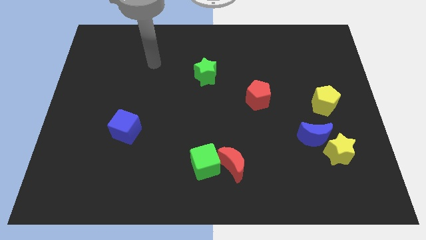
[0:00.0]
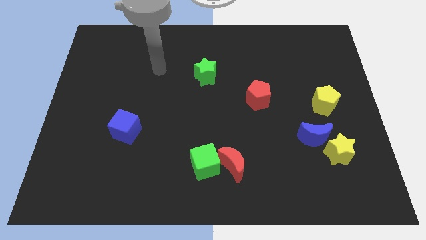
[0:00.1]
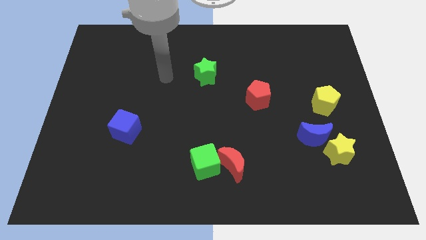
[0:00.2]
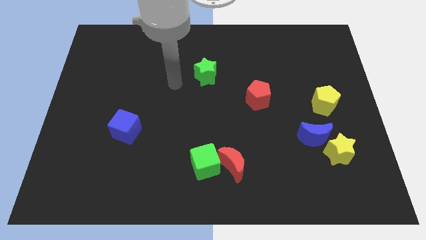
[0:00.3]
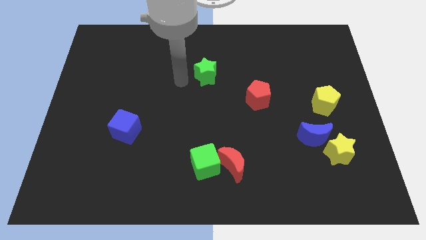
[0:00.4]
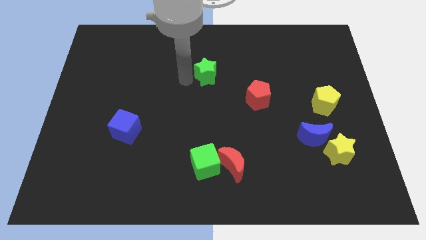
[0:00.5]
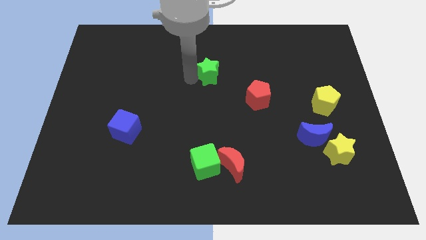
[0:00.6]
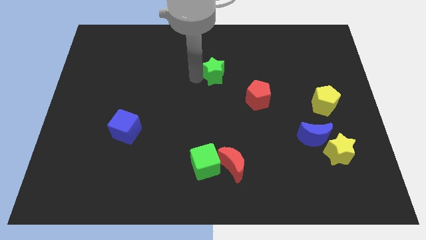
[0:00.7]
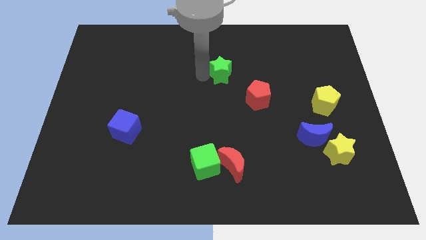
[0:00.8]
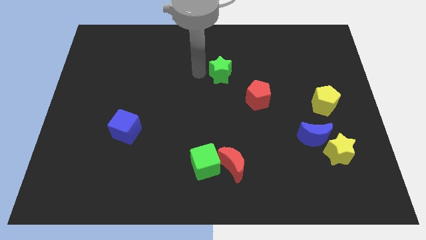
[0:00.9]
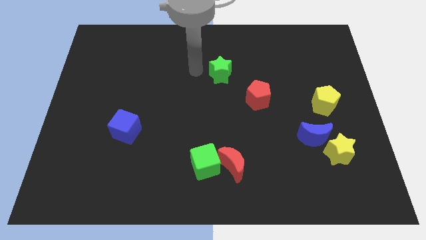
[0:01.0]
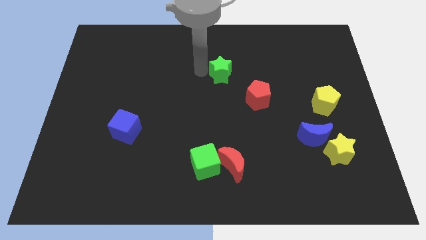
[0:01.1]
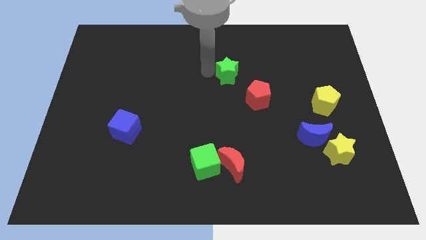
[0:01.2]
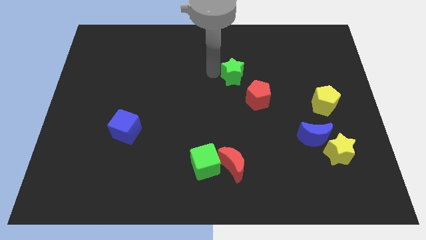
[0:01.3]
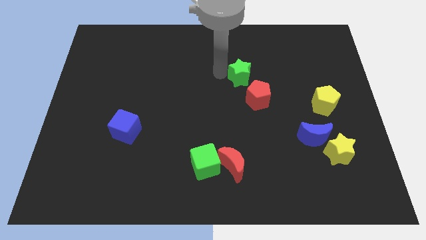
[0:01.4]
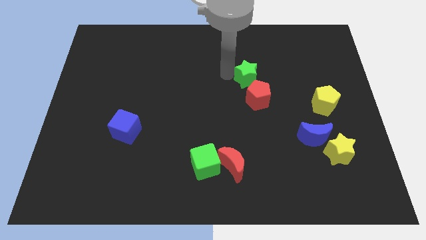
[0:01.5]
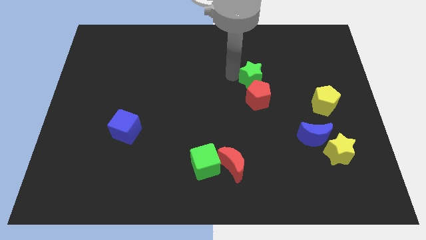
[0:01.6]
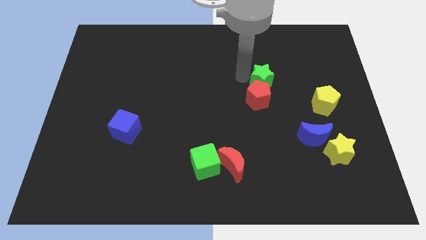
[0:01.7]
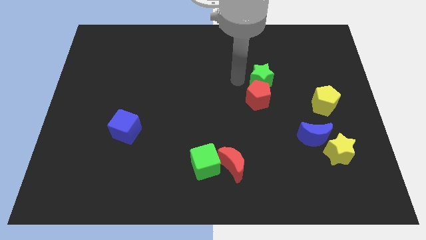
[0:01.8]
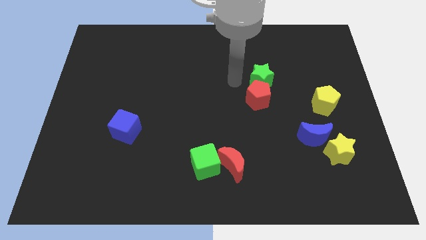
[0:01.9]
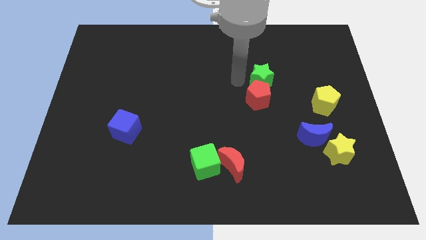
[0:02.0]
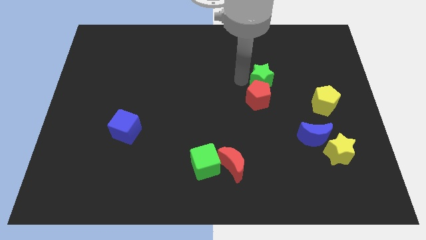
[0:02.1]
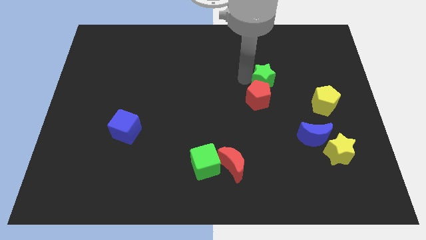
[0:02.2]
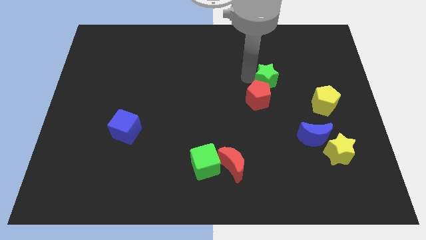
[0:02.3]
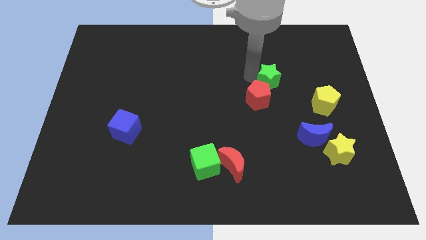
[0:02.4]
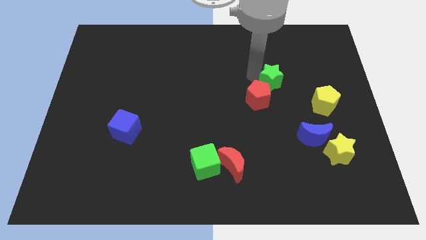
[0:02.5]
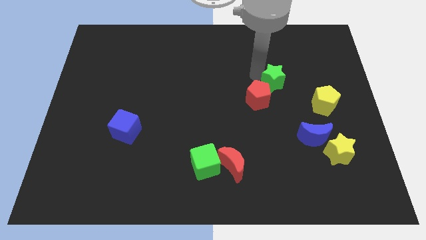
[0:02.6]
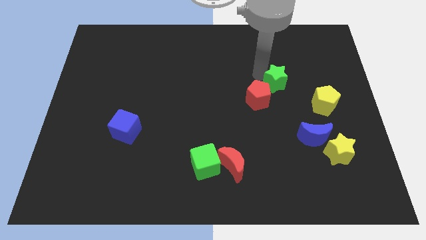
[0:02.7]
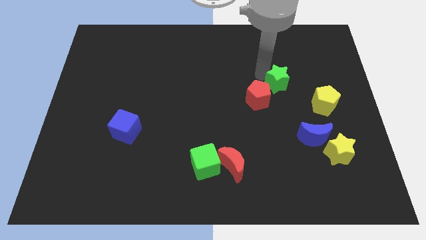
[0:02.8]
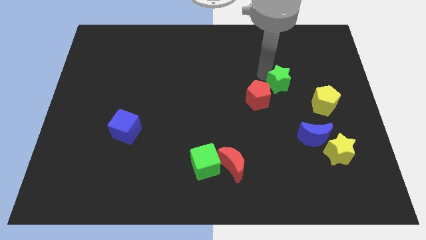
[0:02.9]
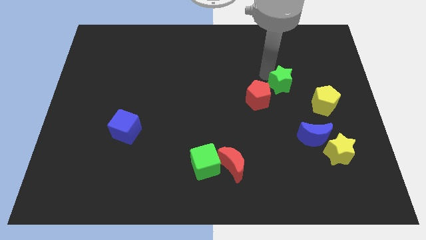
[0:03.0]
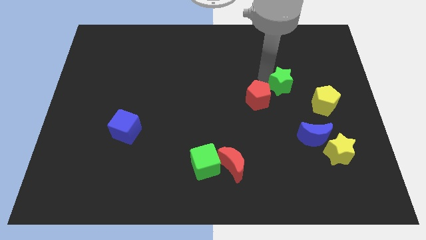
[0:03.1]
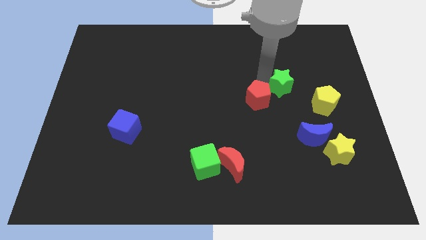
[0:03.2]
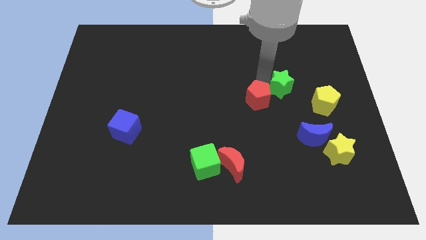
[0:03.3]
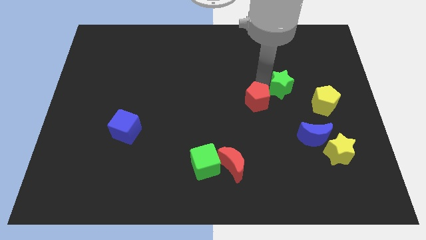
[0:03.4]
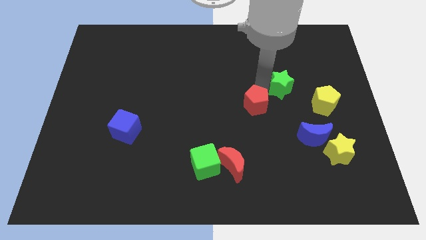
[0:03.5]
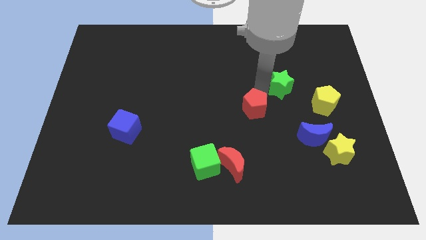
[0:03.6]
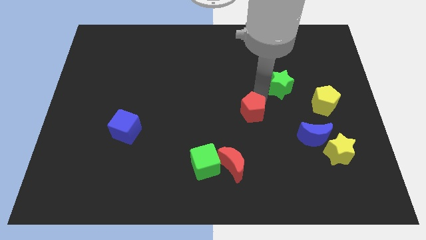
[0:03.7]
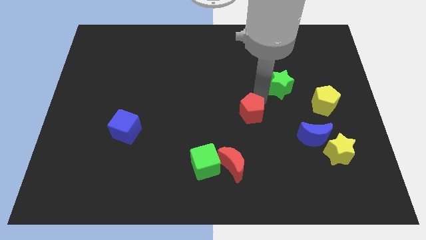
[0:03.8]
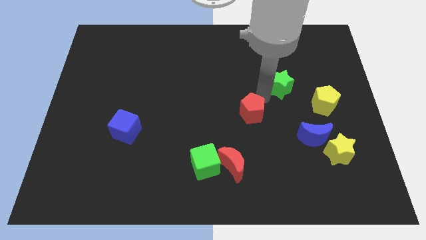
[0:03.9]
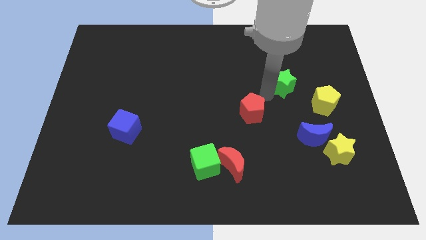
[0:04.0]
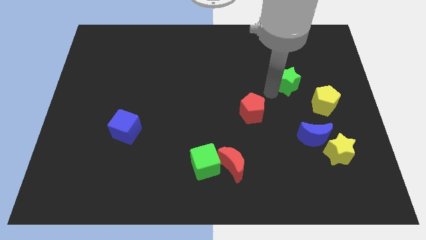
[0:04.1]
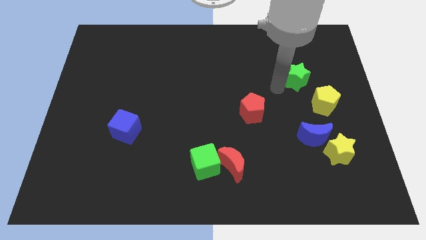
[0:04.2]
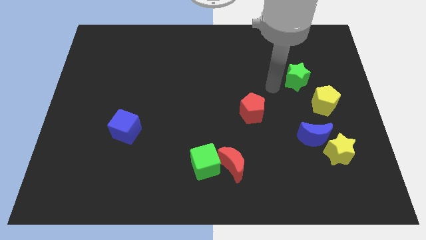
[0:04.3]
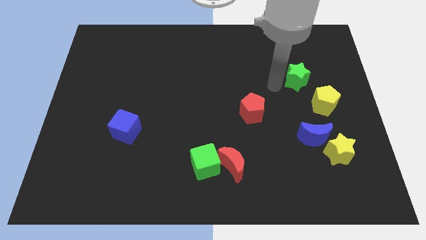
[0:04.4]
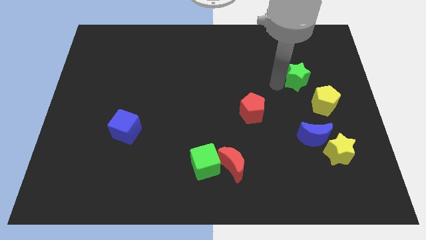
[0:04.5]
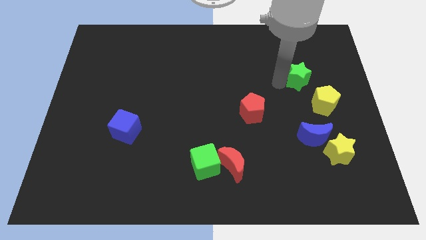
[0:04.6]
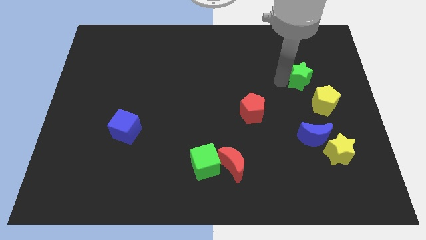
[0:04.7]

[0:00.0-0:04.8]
slide the green star to the top of the yellow pentagon

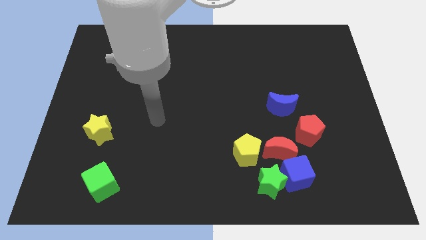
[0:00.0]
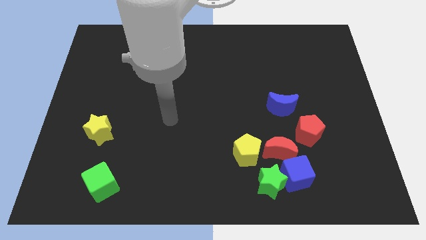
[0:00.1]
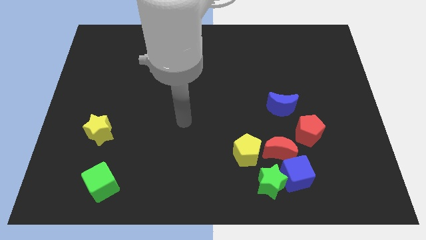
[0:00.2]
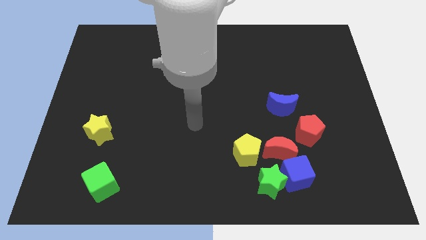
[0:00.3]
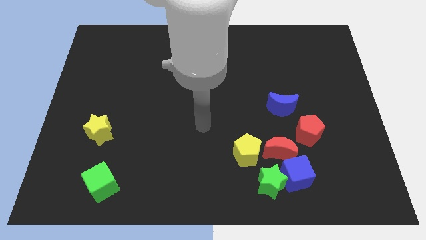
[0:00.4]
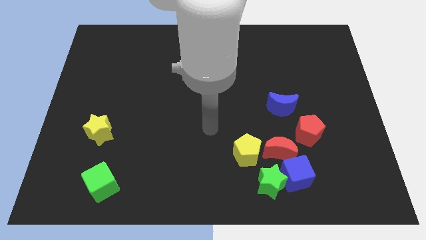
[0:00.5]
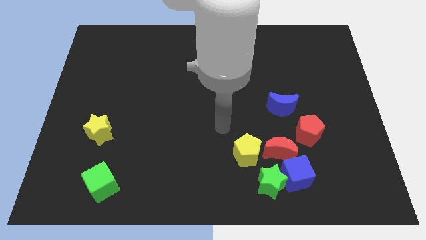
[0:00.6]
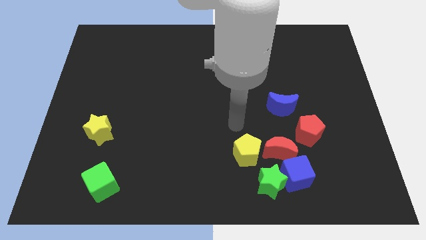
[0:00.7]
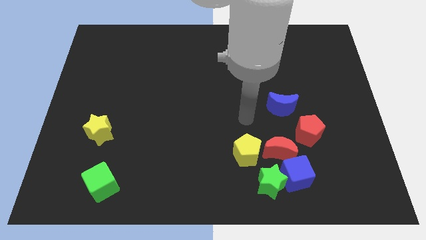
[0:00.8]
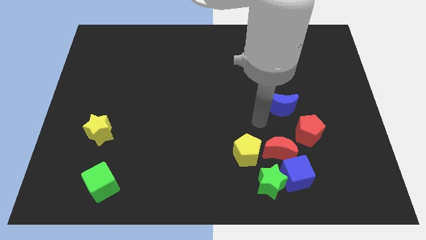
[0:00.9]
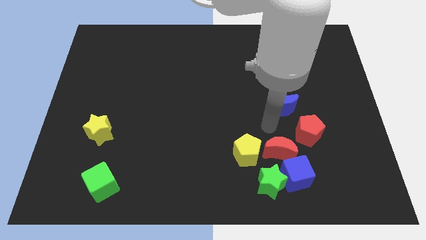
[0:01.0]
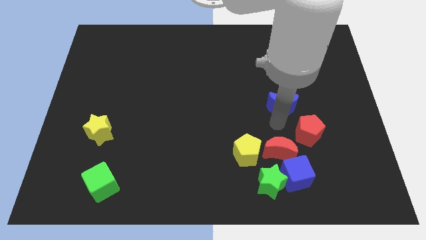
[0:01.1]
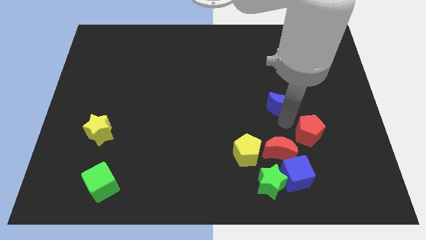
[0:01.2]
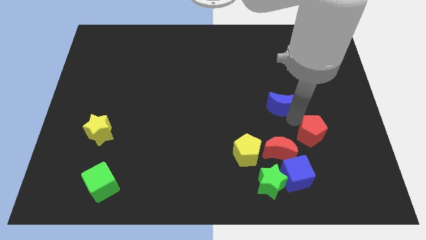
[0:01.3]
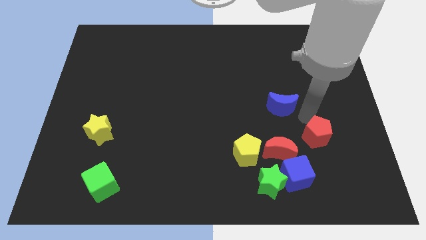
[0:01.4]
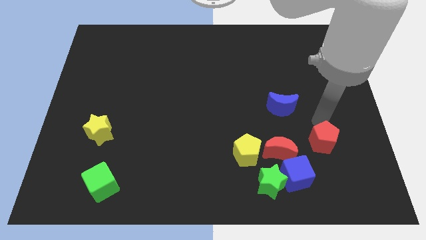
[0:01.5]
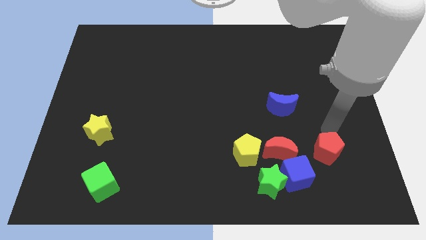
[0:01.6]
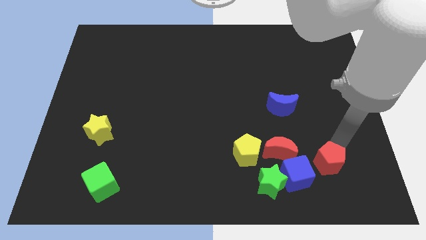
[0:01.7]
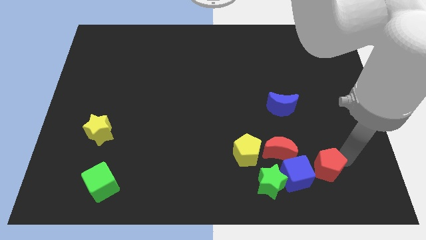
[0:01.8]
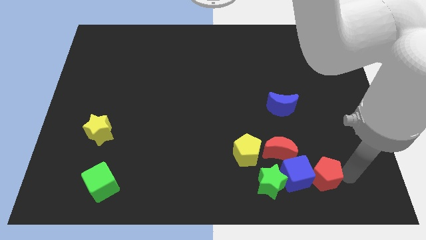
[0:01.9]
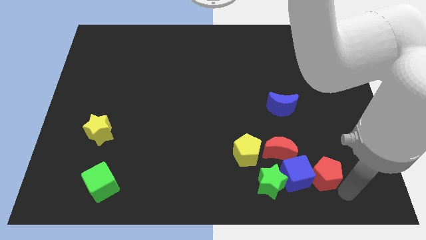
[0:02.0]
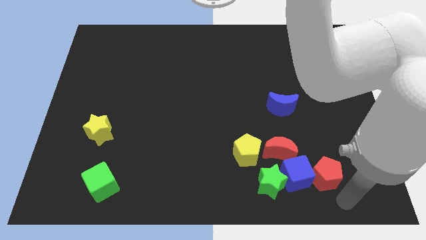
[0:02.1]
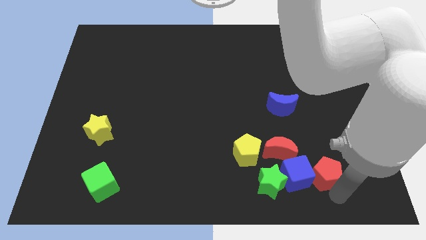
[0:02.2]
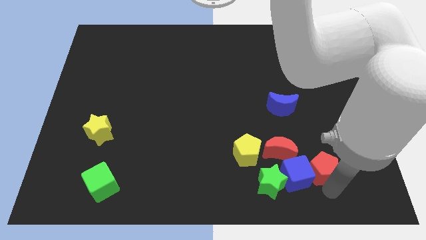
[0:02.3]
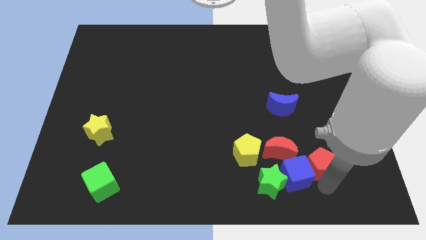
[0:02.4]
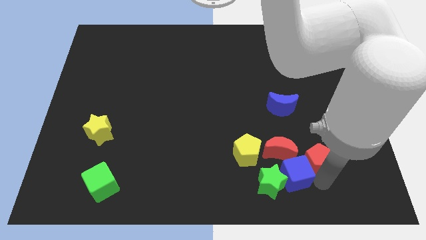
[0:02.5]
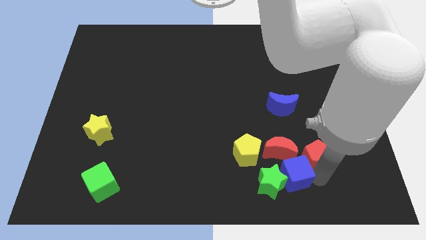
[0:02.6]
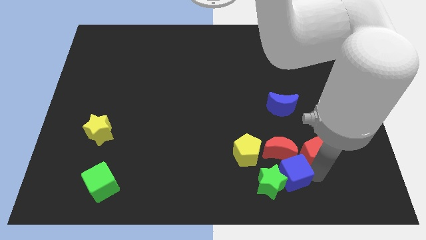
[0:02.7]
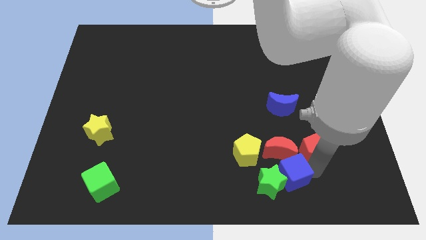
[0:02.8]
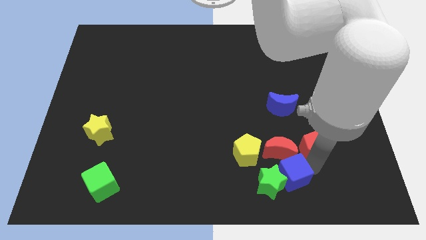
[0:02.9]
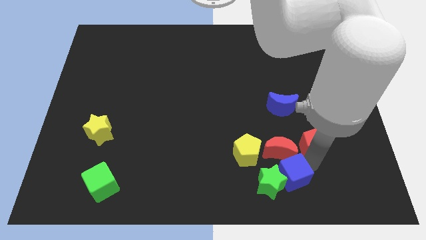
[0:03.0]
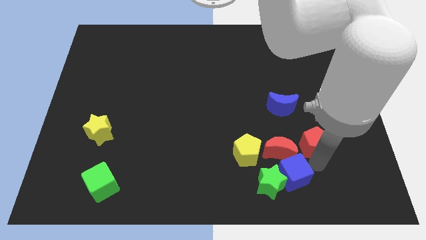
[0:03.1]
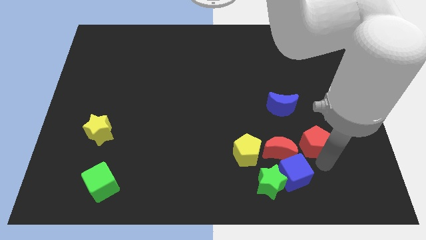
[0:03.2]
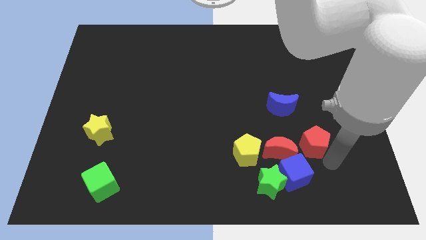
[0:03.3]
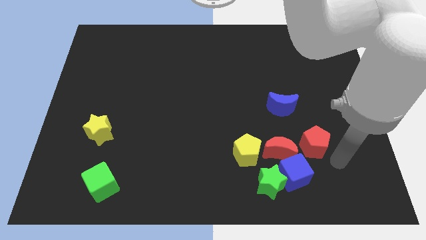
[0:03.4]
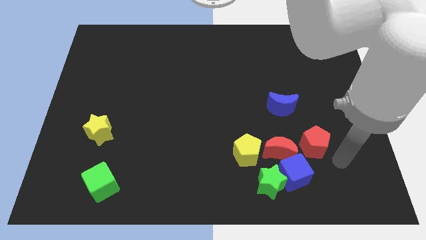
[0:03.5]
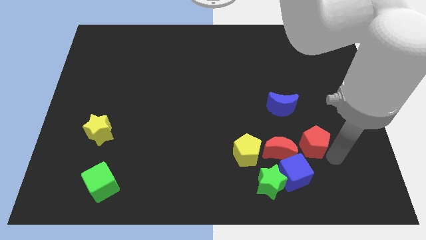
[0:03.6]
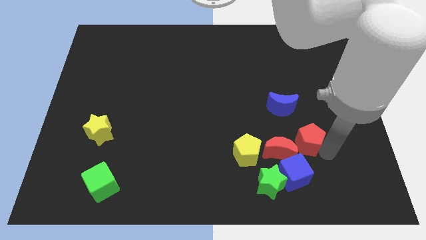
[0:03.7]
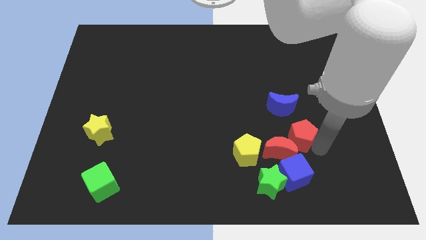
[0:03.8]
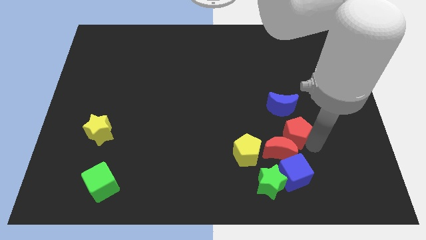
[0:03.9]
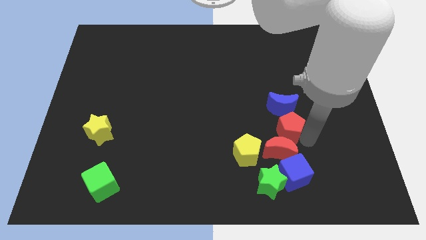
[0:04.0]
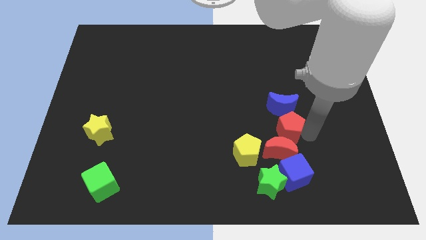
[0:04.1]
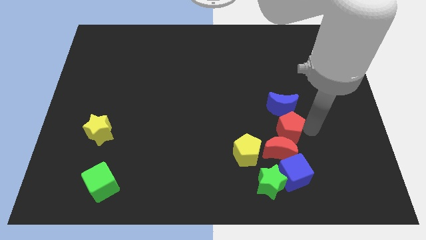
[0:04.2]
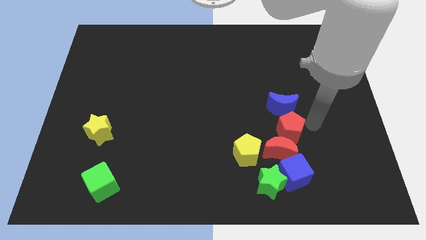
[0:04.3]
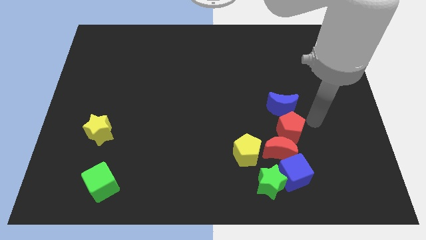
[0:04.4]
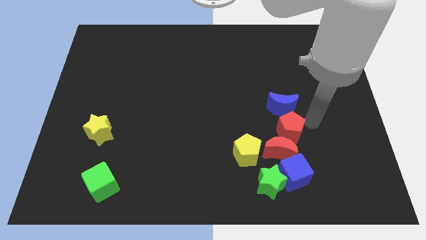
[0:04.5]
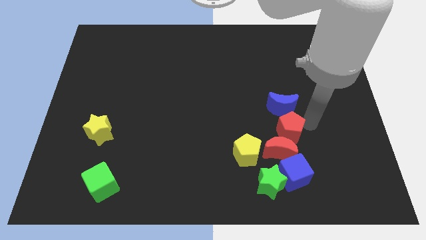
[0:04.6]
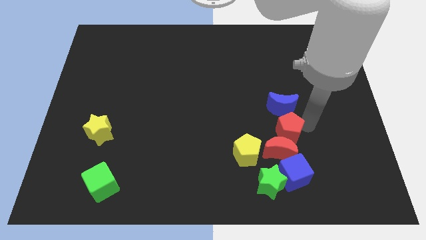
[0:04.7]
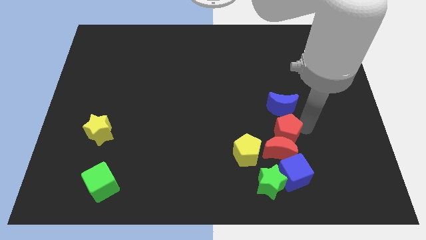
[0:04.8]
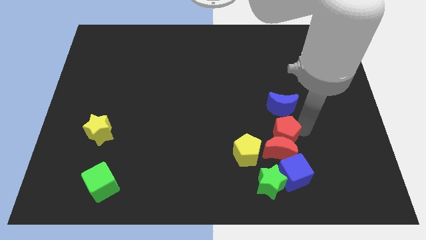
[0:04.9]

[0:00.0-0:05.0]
push the red pentagon to the top side of the green star
